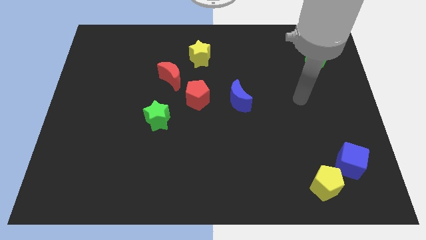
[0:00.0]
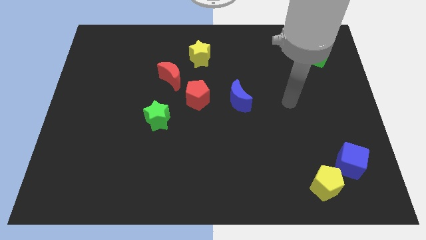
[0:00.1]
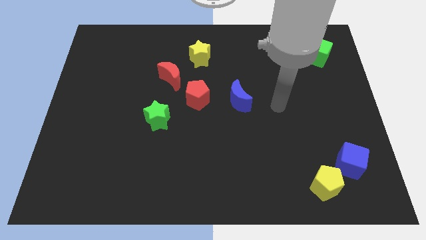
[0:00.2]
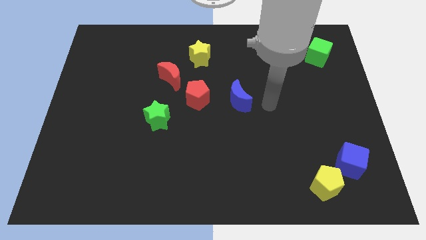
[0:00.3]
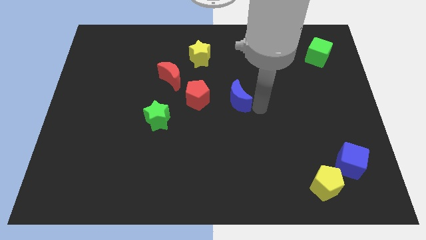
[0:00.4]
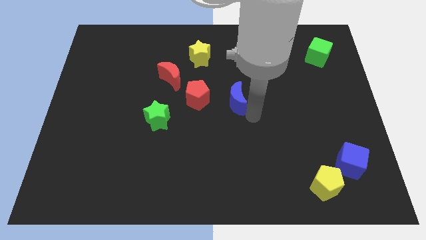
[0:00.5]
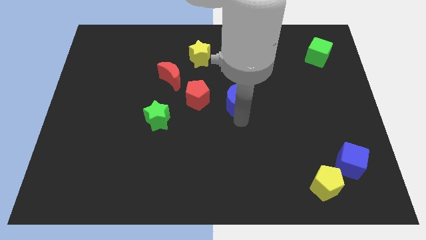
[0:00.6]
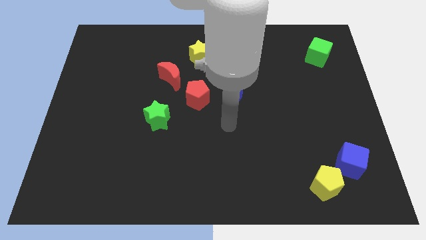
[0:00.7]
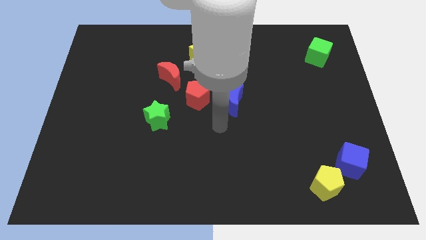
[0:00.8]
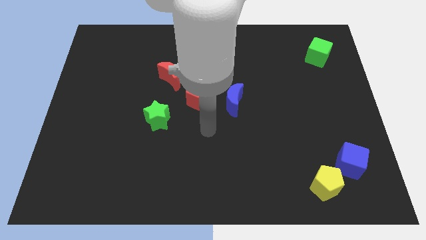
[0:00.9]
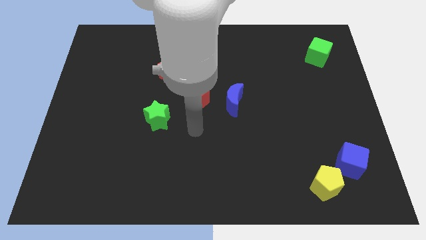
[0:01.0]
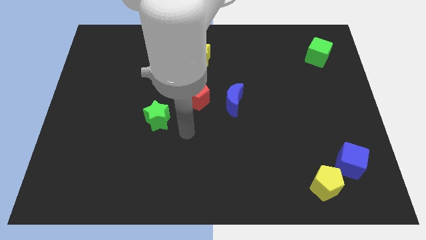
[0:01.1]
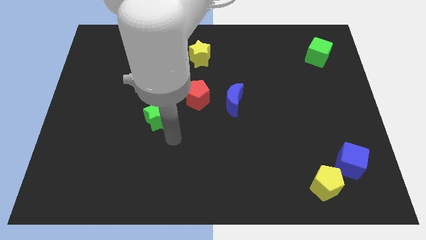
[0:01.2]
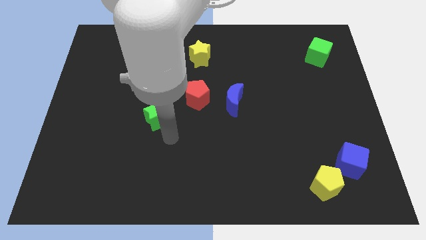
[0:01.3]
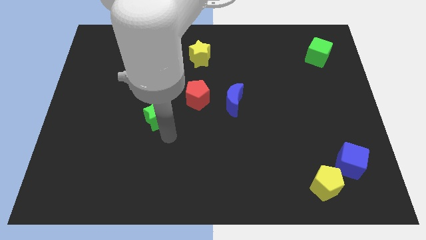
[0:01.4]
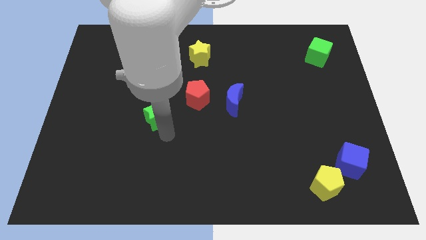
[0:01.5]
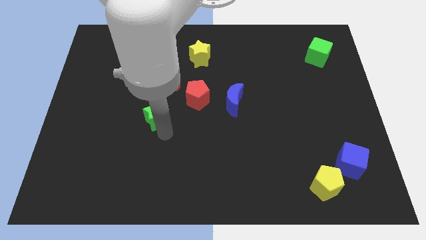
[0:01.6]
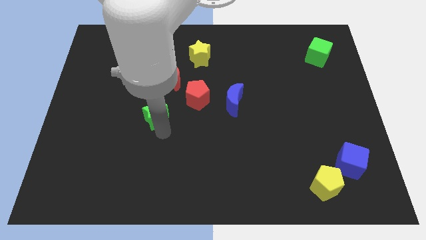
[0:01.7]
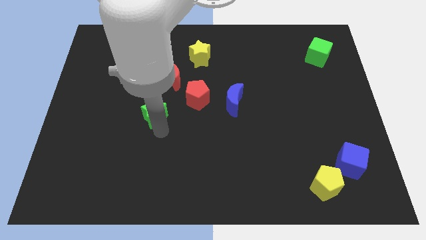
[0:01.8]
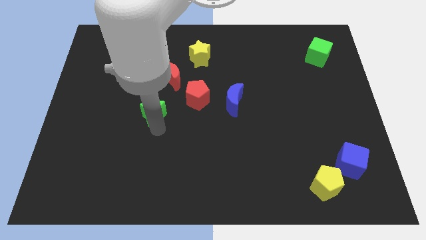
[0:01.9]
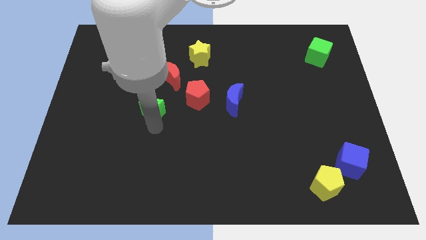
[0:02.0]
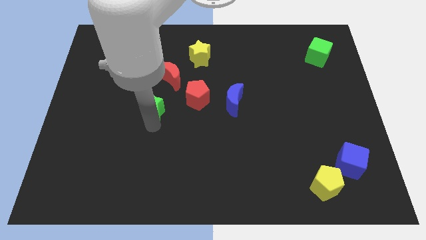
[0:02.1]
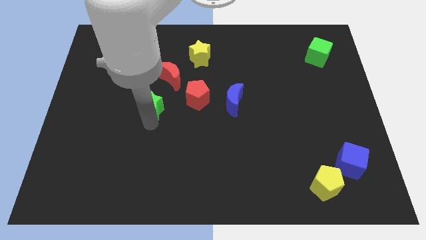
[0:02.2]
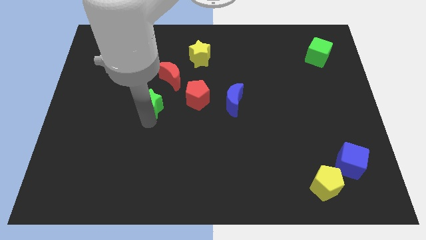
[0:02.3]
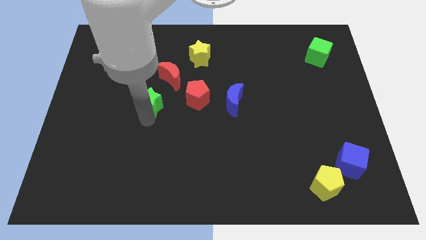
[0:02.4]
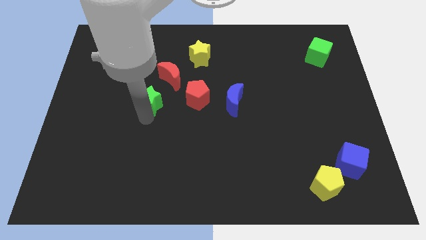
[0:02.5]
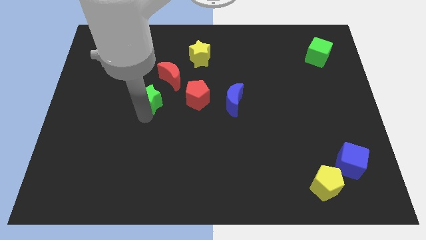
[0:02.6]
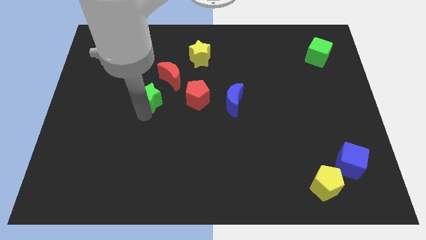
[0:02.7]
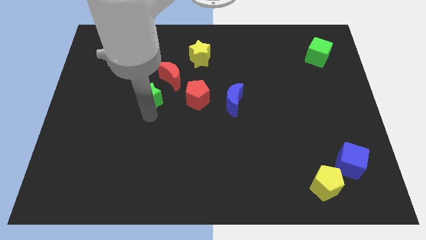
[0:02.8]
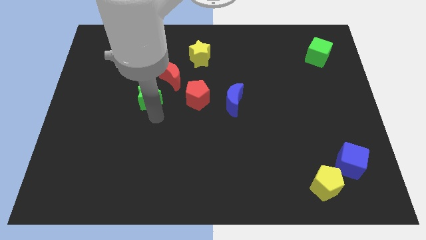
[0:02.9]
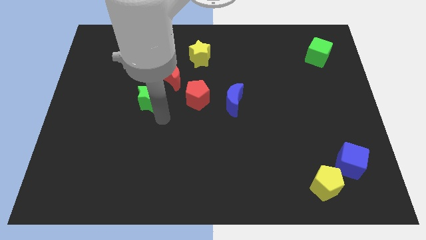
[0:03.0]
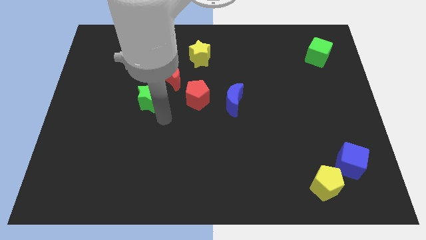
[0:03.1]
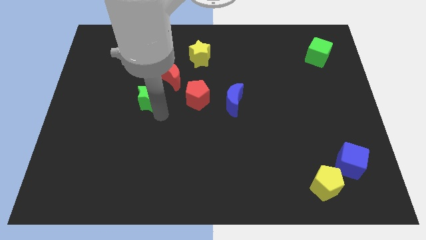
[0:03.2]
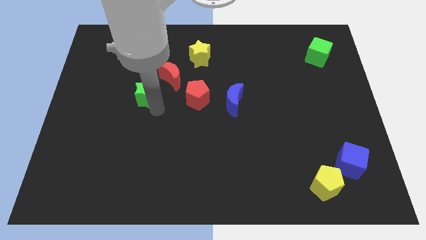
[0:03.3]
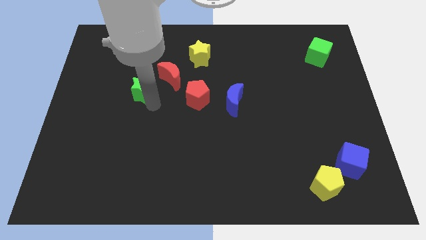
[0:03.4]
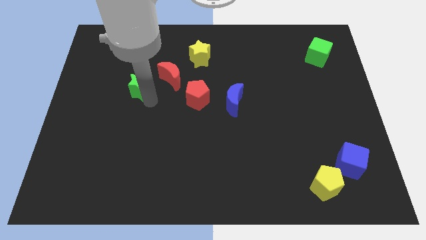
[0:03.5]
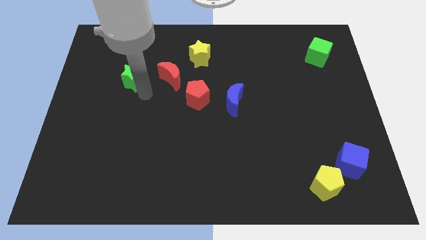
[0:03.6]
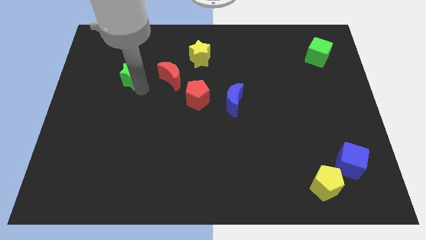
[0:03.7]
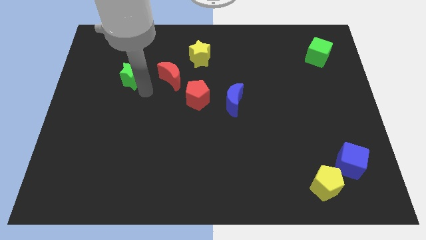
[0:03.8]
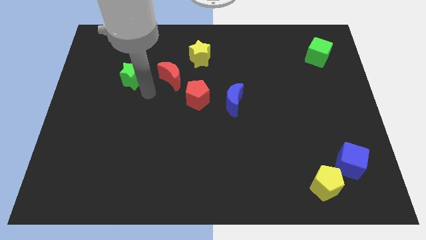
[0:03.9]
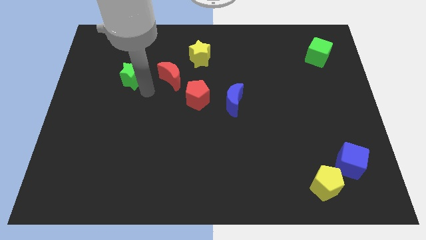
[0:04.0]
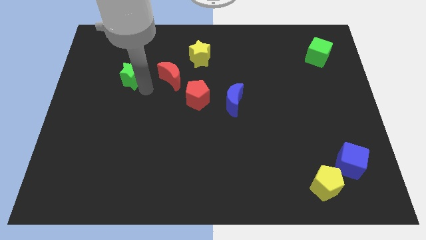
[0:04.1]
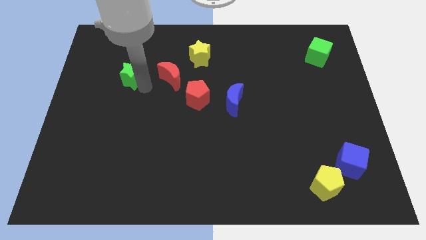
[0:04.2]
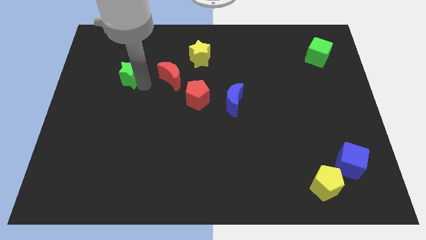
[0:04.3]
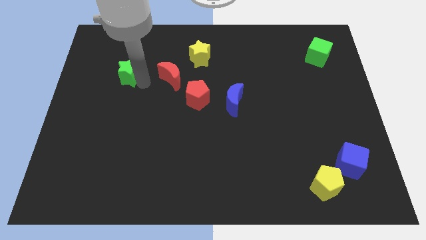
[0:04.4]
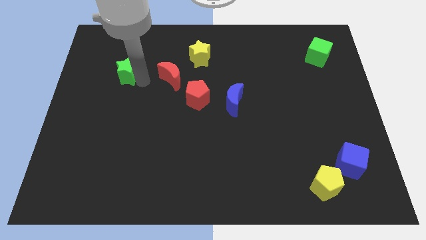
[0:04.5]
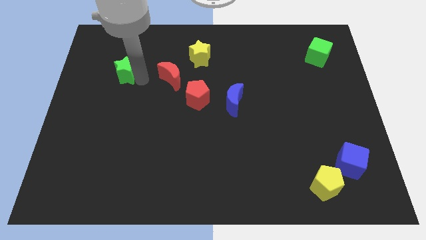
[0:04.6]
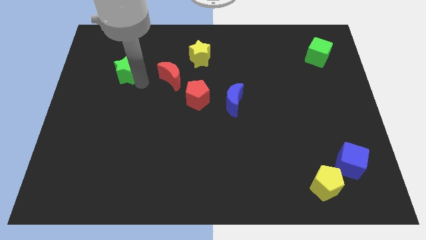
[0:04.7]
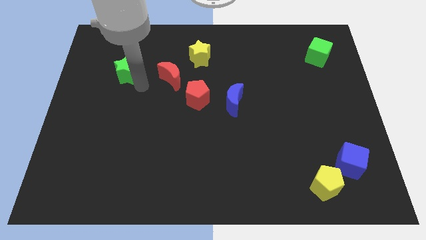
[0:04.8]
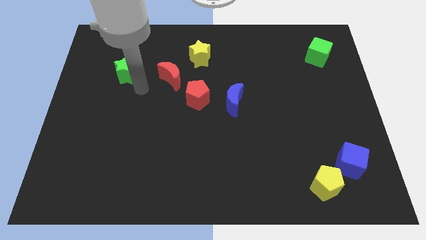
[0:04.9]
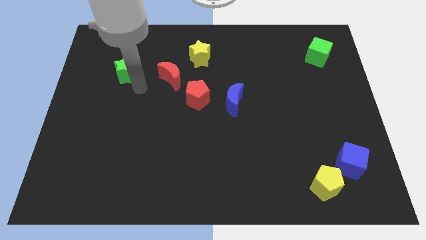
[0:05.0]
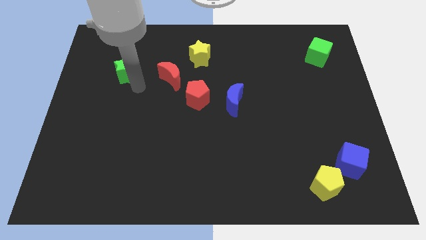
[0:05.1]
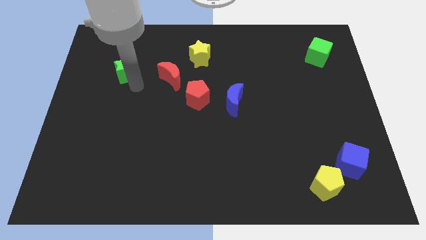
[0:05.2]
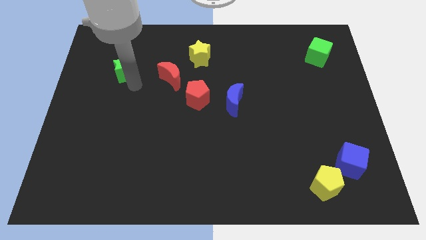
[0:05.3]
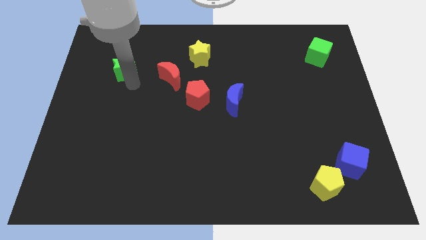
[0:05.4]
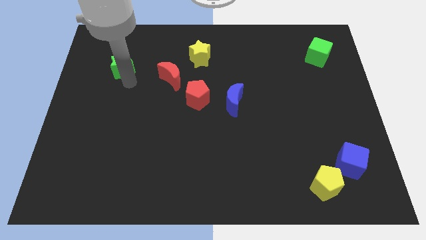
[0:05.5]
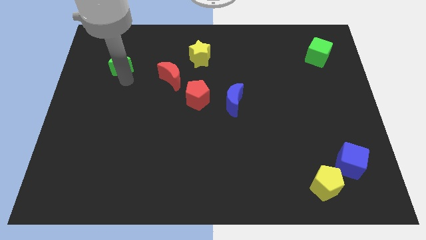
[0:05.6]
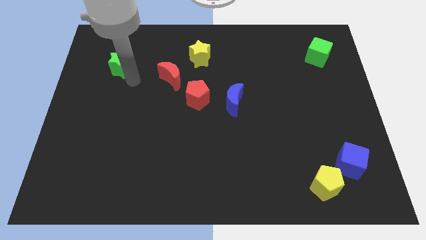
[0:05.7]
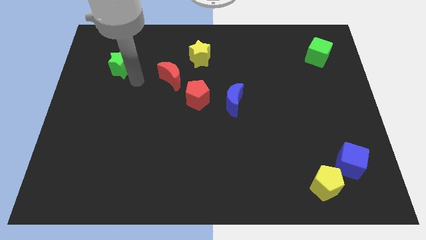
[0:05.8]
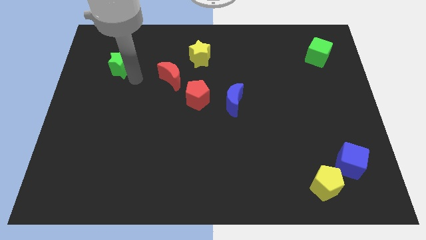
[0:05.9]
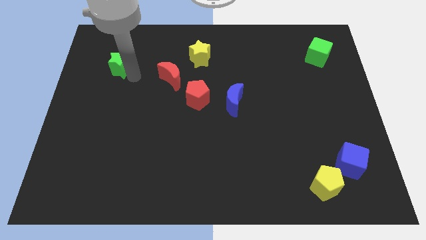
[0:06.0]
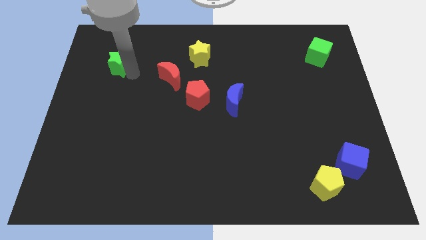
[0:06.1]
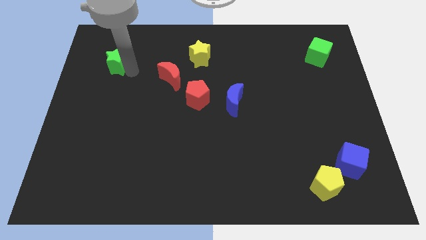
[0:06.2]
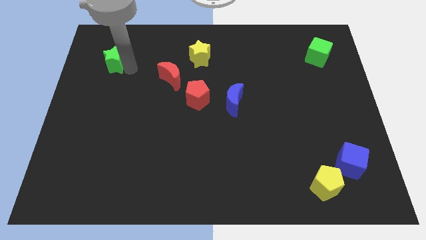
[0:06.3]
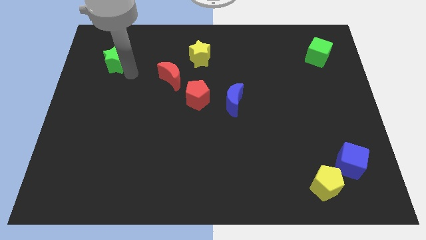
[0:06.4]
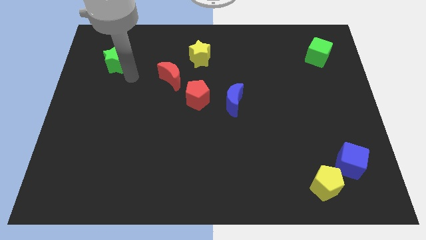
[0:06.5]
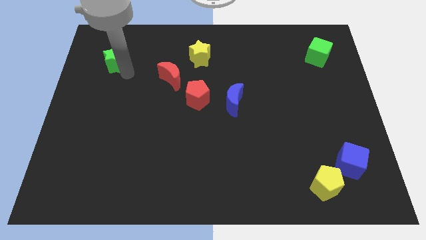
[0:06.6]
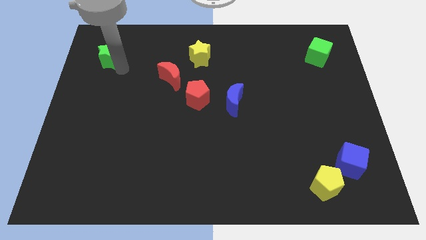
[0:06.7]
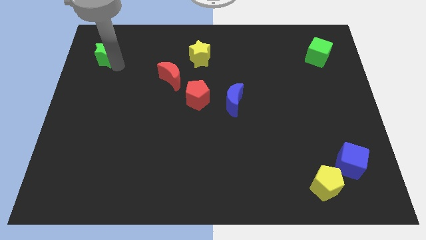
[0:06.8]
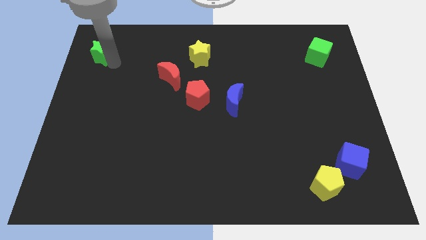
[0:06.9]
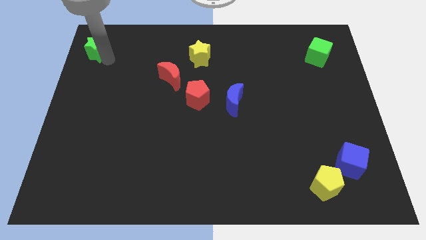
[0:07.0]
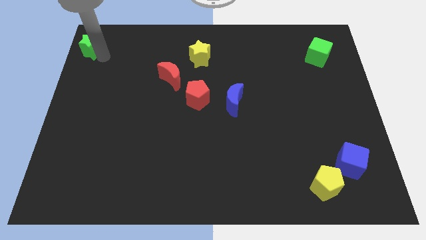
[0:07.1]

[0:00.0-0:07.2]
push the green star to the top left of the board
